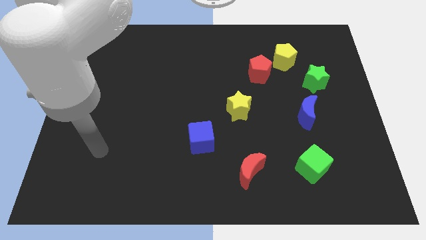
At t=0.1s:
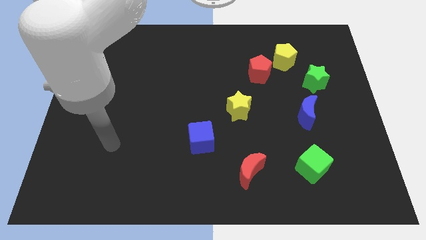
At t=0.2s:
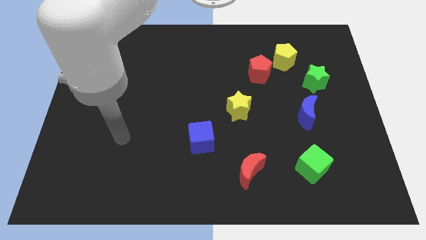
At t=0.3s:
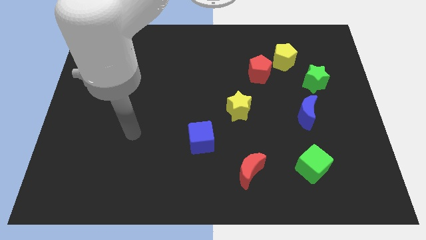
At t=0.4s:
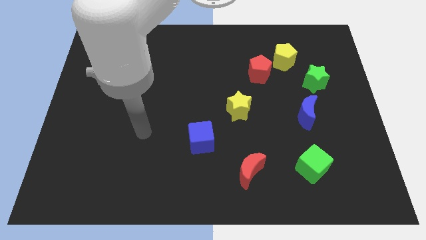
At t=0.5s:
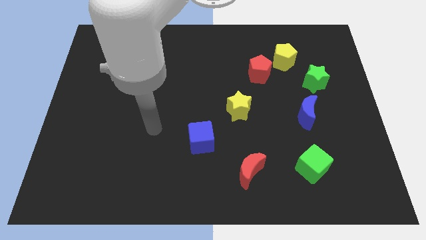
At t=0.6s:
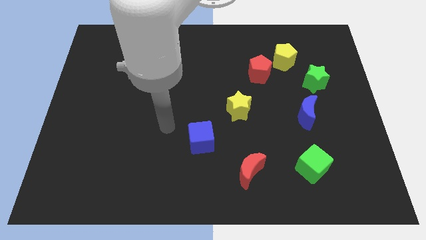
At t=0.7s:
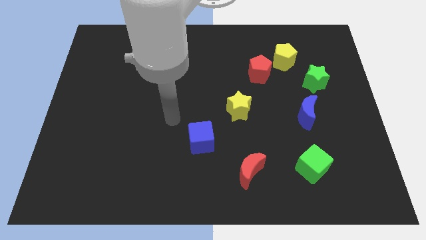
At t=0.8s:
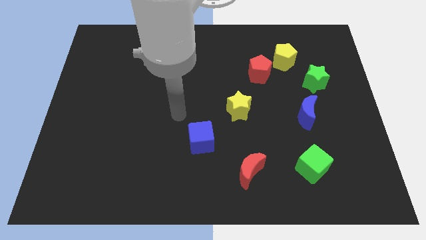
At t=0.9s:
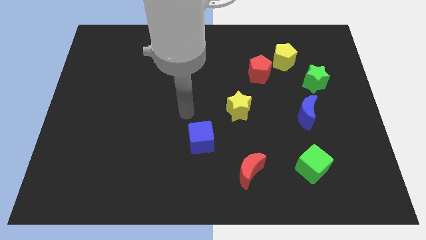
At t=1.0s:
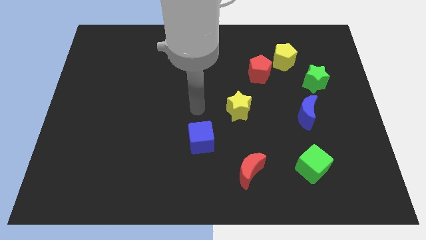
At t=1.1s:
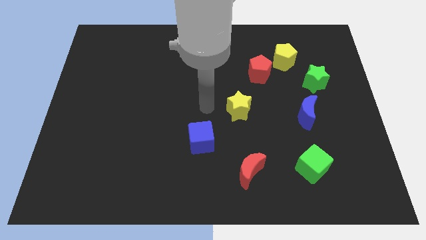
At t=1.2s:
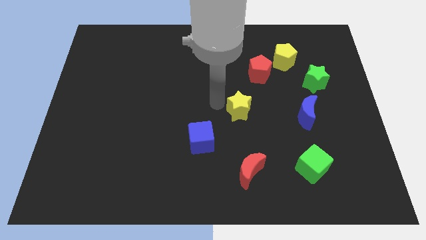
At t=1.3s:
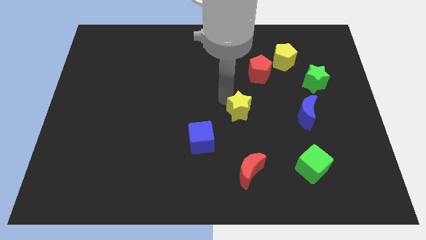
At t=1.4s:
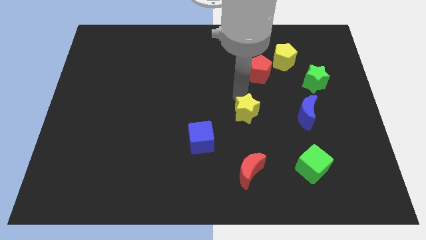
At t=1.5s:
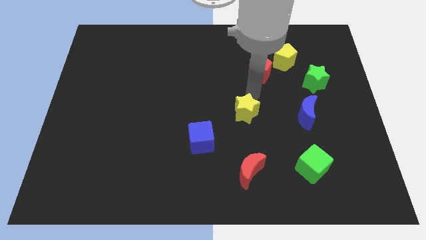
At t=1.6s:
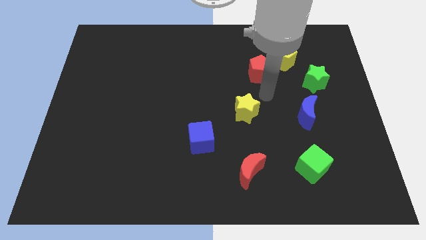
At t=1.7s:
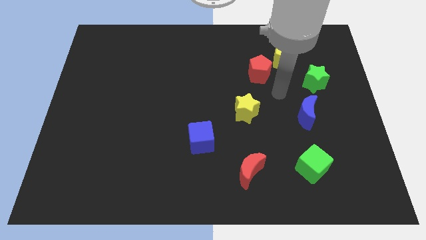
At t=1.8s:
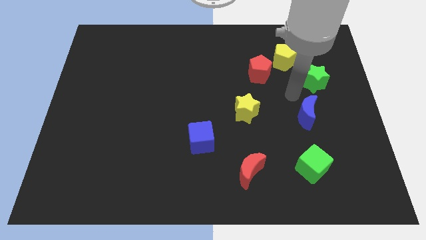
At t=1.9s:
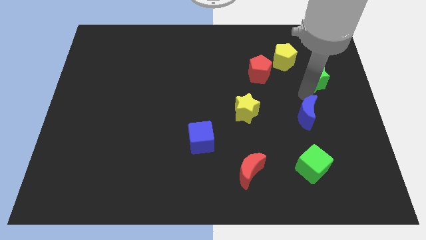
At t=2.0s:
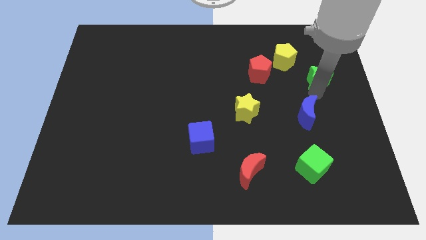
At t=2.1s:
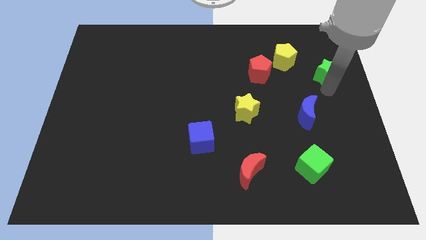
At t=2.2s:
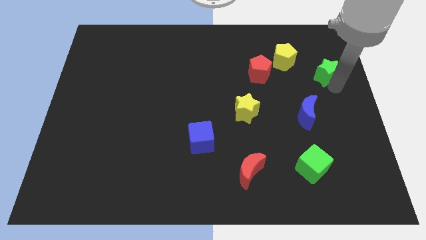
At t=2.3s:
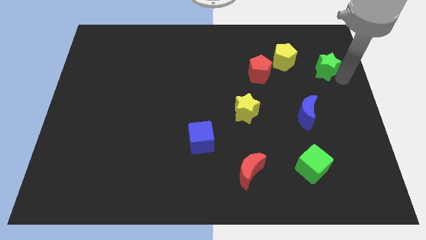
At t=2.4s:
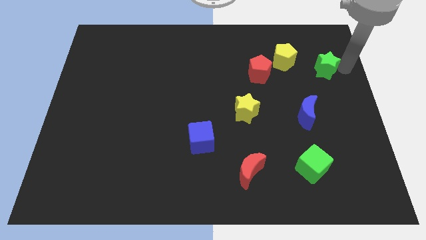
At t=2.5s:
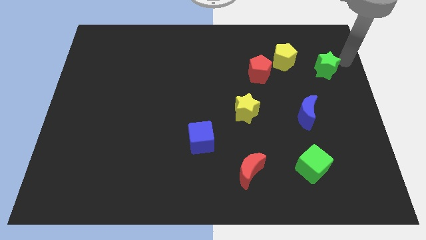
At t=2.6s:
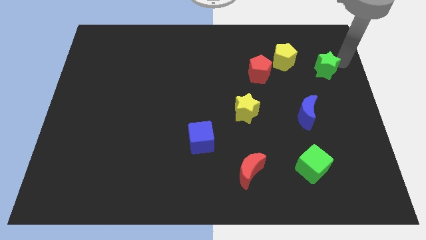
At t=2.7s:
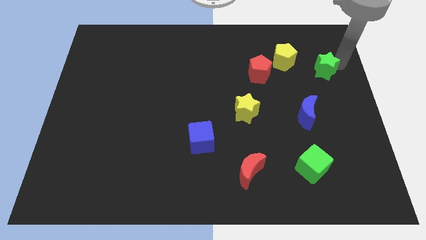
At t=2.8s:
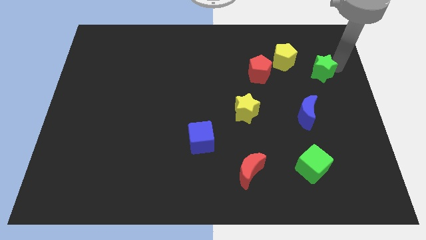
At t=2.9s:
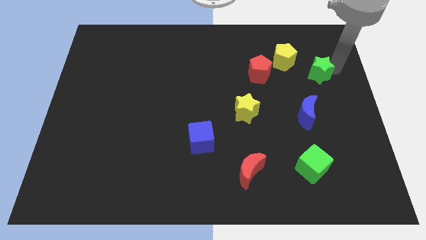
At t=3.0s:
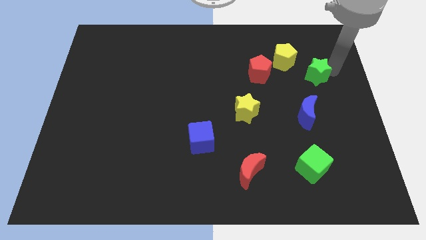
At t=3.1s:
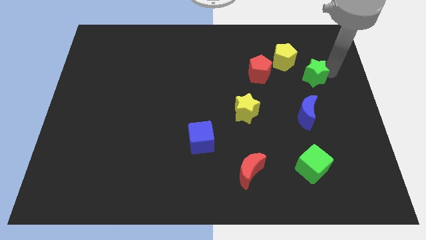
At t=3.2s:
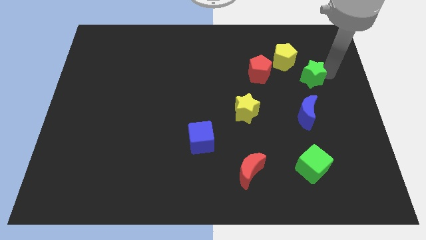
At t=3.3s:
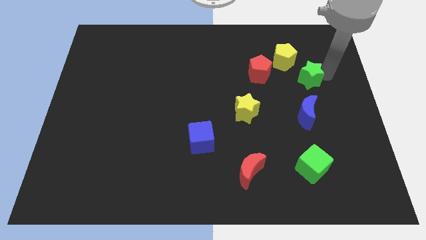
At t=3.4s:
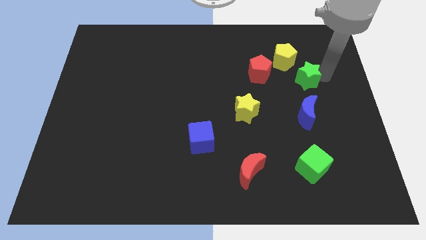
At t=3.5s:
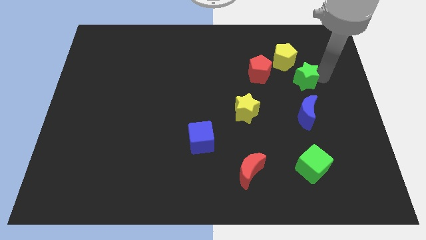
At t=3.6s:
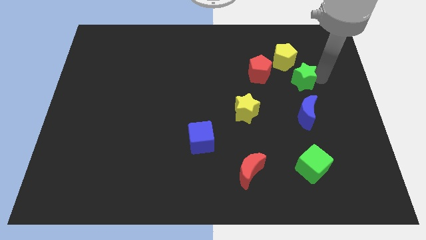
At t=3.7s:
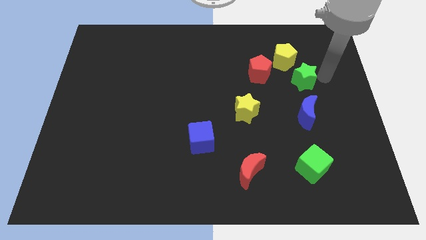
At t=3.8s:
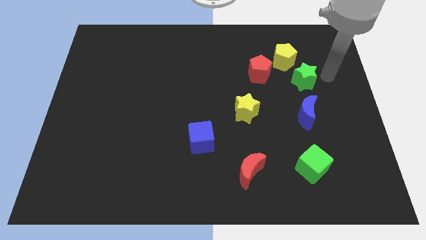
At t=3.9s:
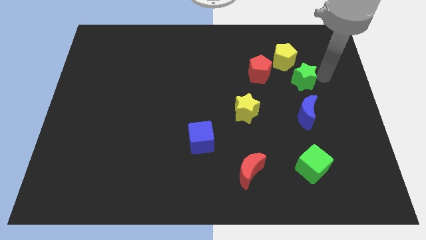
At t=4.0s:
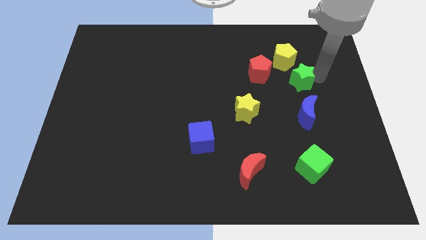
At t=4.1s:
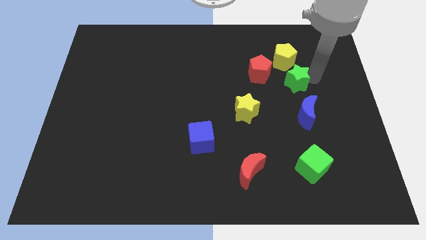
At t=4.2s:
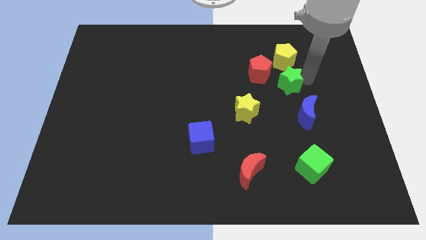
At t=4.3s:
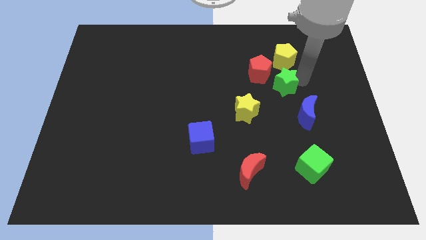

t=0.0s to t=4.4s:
slightly move the green star left

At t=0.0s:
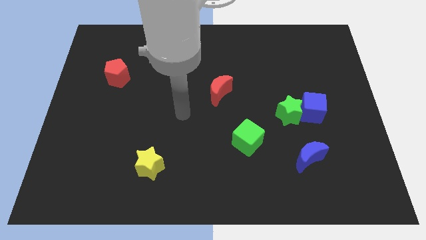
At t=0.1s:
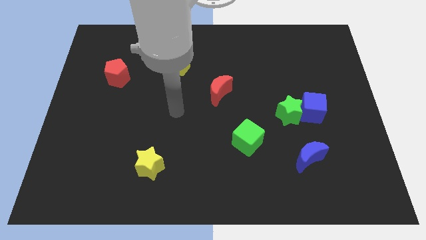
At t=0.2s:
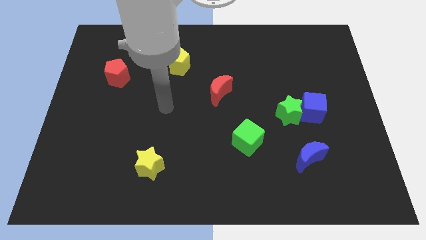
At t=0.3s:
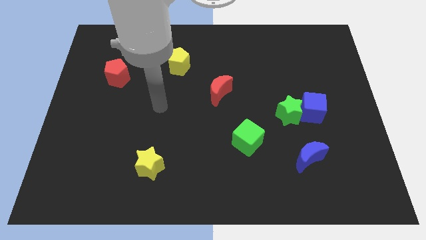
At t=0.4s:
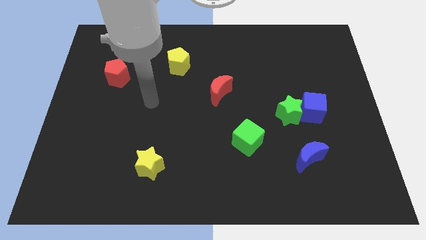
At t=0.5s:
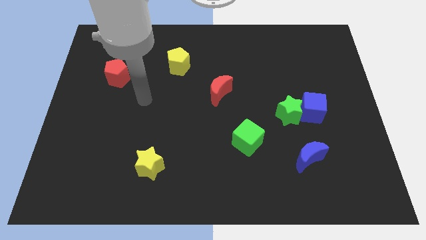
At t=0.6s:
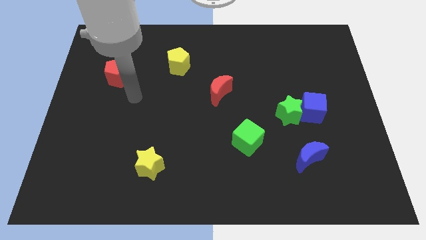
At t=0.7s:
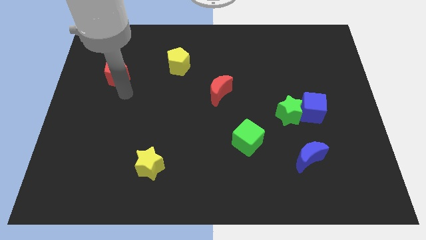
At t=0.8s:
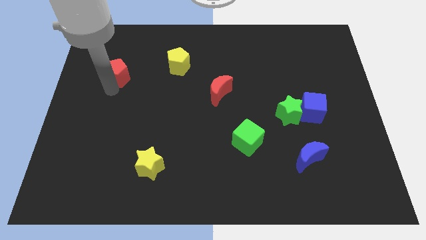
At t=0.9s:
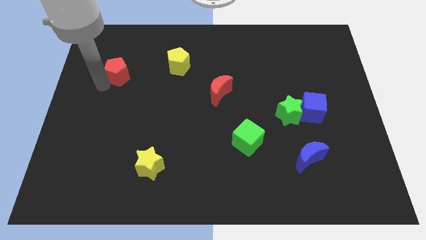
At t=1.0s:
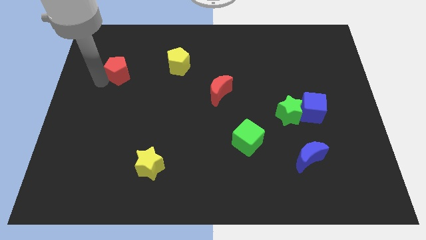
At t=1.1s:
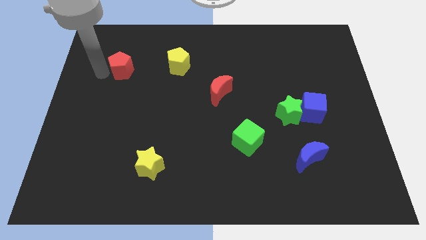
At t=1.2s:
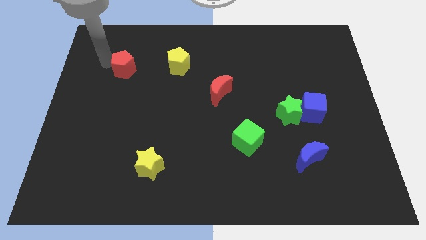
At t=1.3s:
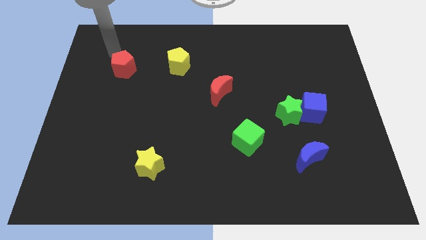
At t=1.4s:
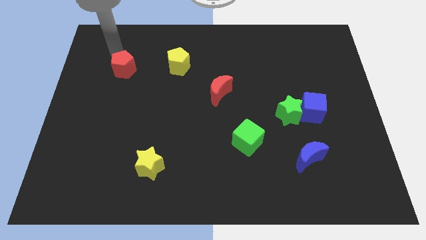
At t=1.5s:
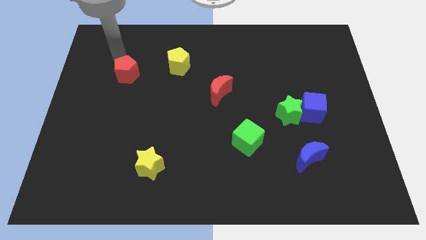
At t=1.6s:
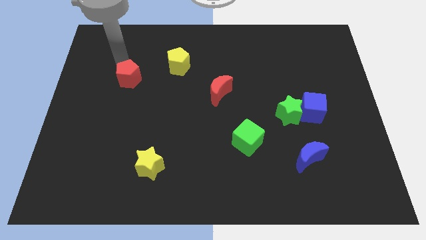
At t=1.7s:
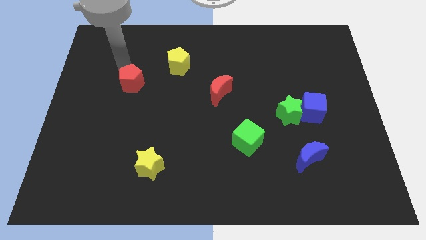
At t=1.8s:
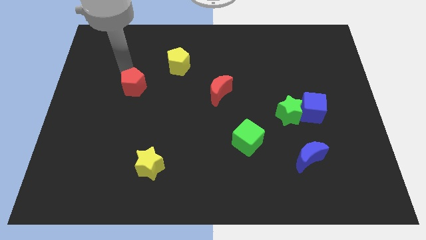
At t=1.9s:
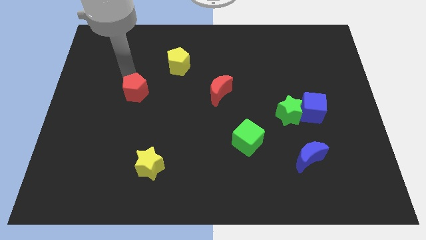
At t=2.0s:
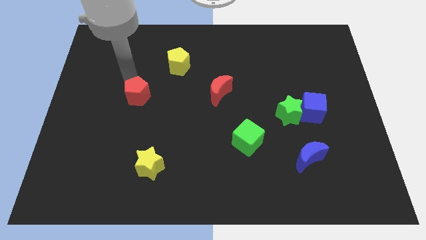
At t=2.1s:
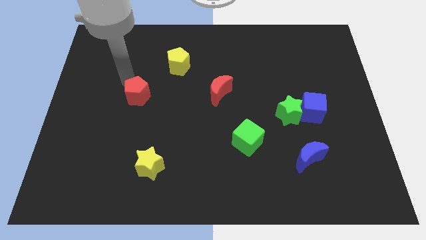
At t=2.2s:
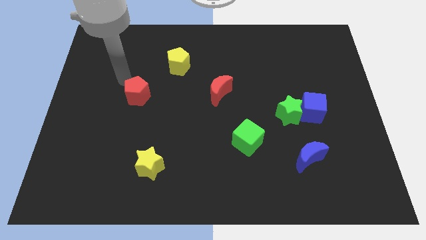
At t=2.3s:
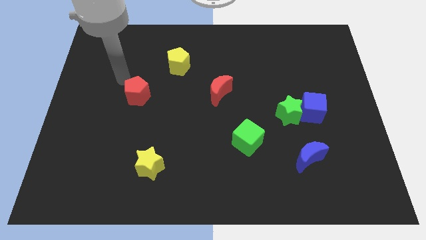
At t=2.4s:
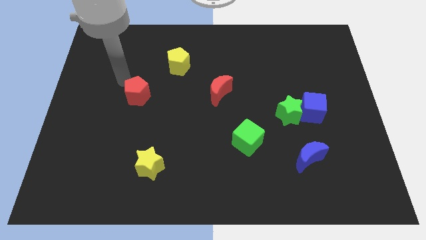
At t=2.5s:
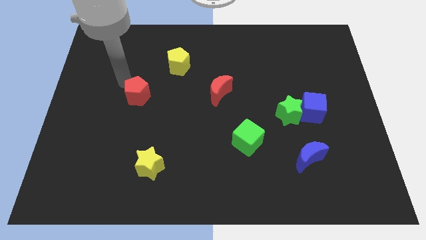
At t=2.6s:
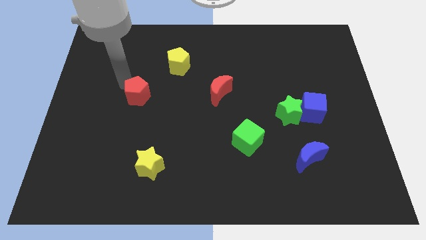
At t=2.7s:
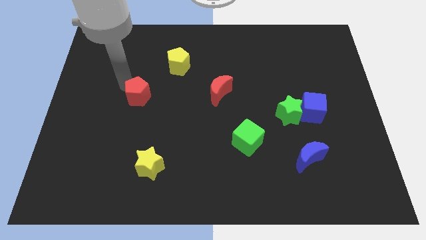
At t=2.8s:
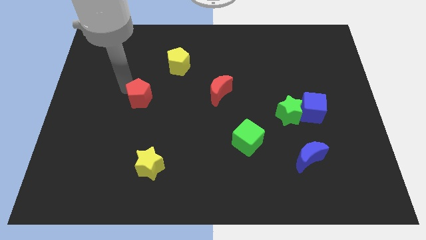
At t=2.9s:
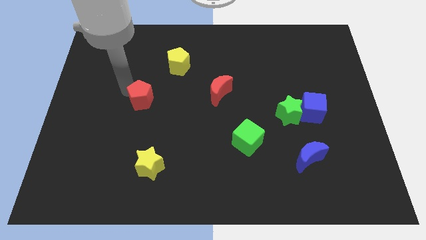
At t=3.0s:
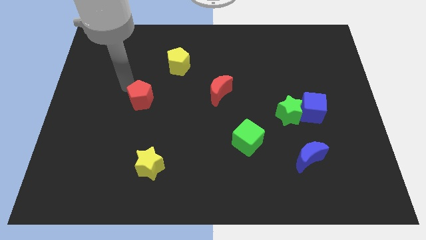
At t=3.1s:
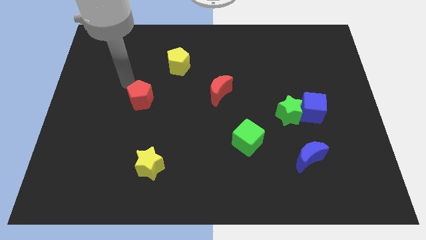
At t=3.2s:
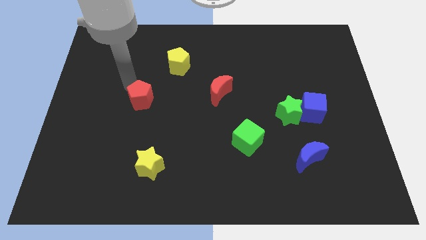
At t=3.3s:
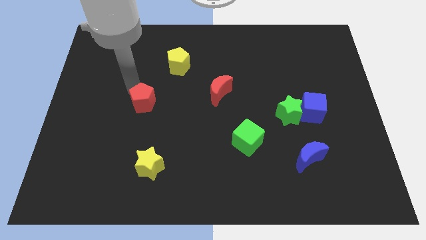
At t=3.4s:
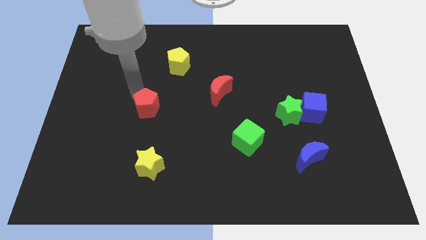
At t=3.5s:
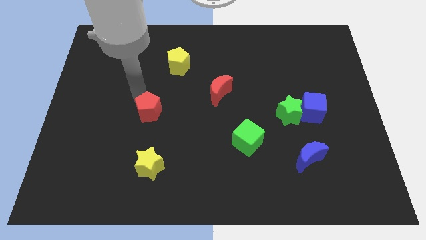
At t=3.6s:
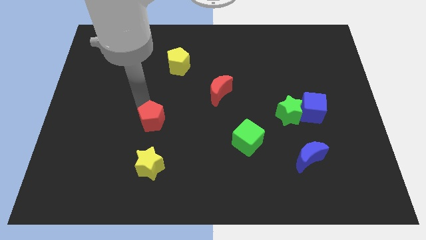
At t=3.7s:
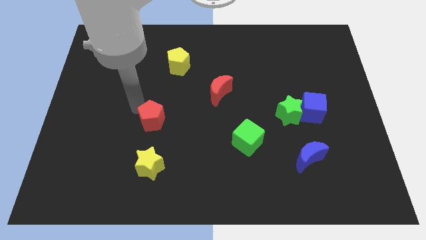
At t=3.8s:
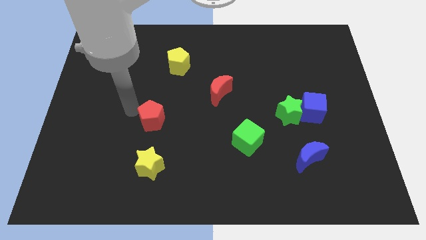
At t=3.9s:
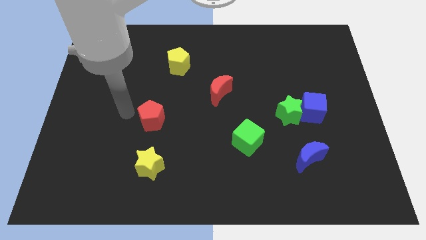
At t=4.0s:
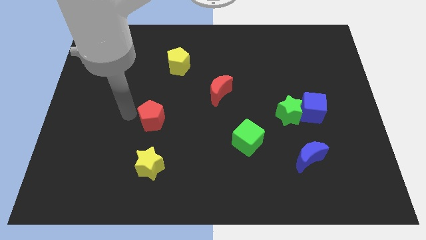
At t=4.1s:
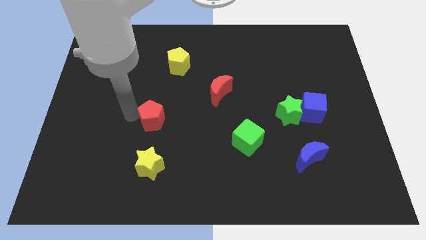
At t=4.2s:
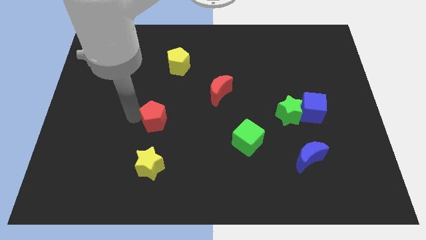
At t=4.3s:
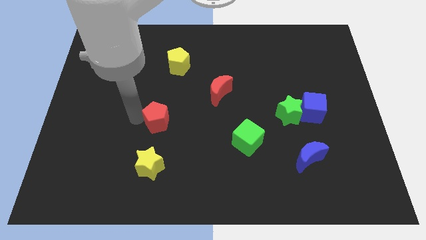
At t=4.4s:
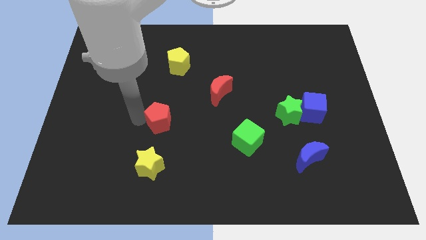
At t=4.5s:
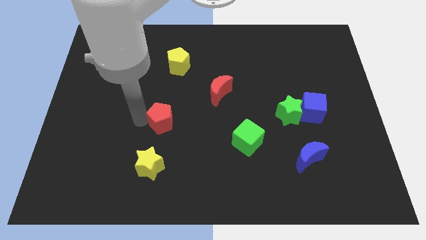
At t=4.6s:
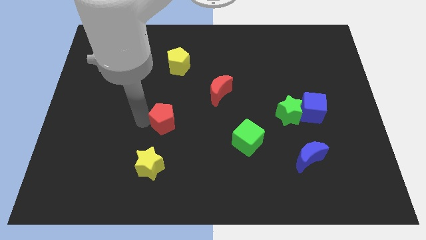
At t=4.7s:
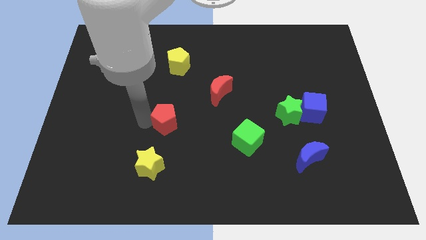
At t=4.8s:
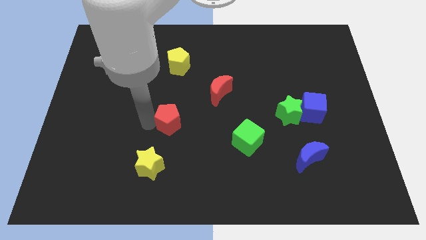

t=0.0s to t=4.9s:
push the red pentagon downwards and then to the right
